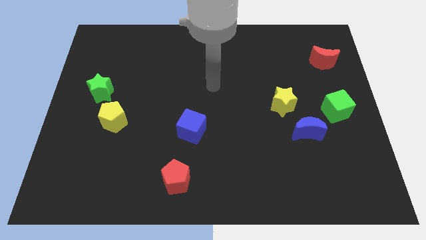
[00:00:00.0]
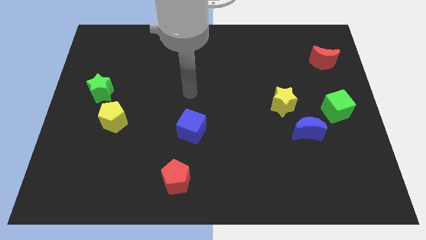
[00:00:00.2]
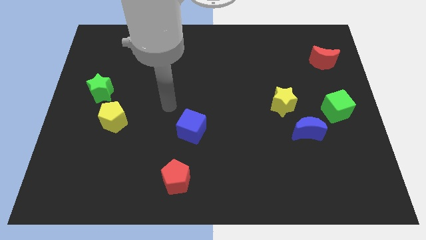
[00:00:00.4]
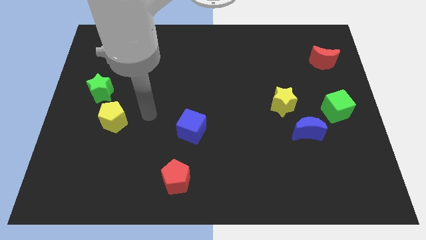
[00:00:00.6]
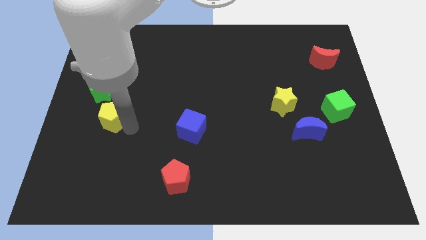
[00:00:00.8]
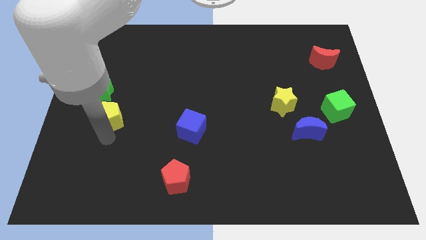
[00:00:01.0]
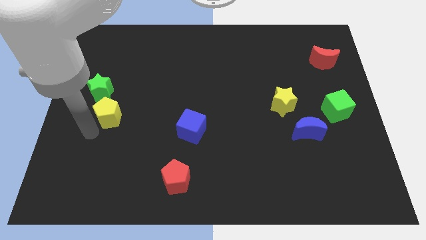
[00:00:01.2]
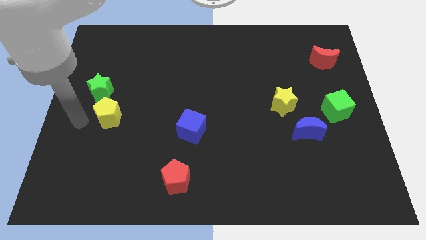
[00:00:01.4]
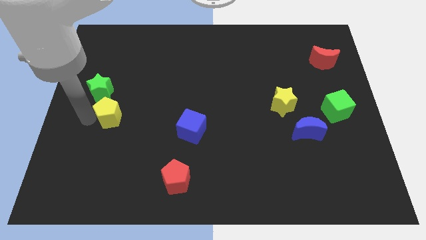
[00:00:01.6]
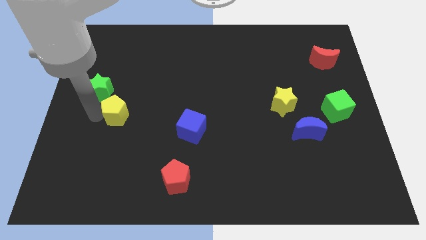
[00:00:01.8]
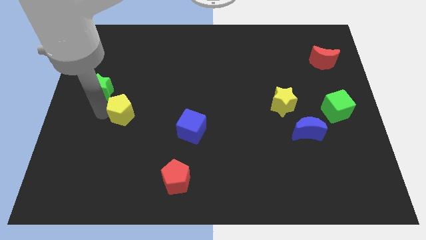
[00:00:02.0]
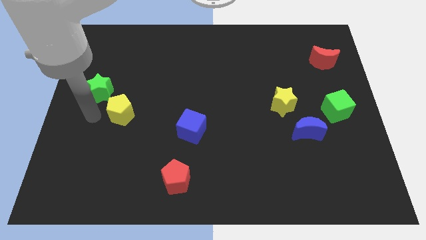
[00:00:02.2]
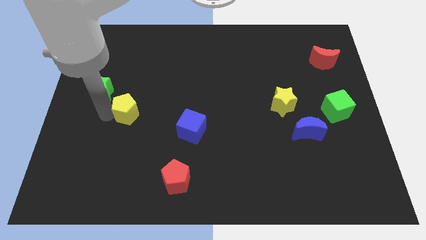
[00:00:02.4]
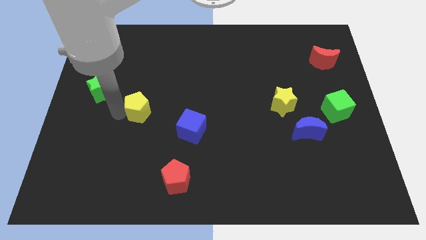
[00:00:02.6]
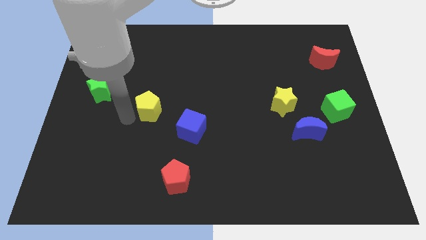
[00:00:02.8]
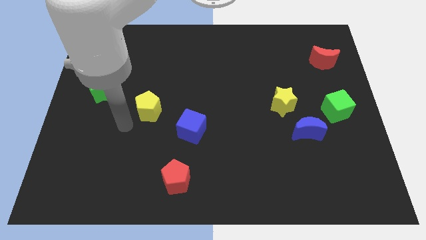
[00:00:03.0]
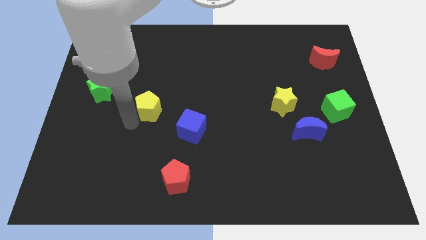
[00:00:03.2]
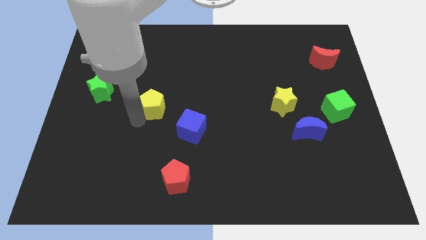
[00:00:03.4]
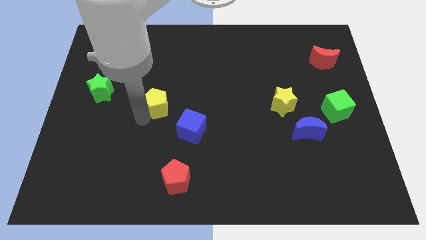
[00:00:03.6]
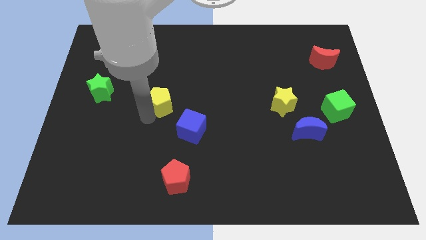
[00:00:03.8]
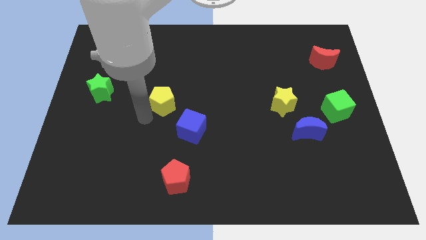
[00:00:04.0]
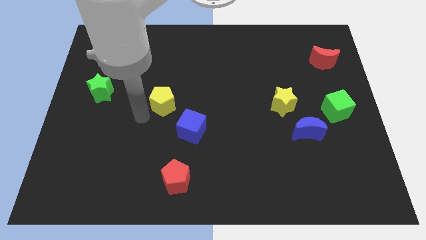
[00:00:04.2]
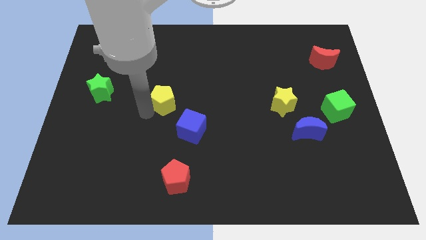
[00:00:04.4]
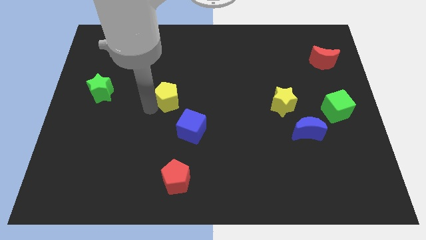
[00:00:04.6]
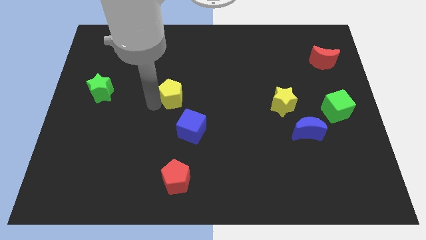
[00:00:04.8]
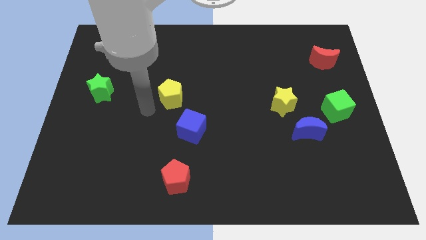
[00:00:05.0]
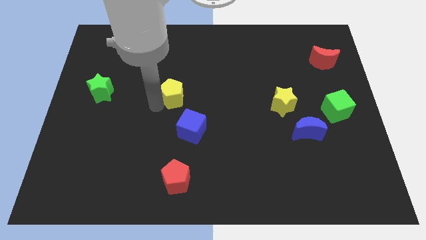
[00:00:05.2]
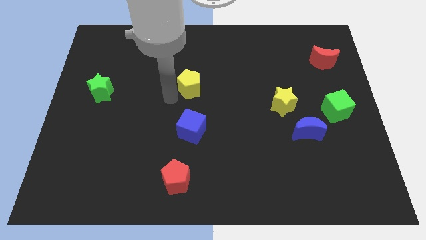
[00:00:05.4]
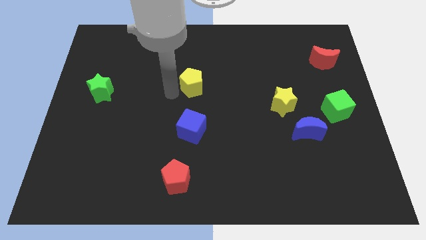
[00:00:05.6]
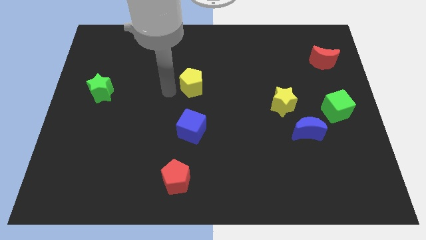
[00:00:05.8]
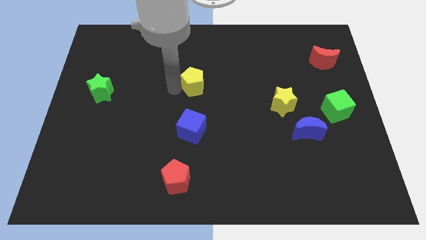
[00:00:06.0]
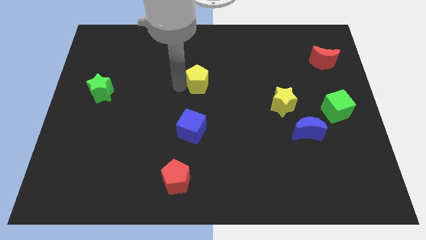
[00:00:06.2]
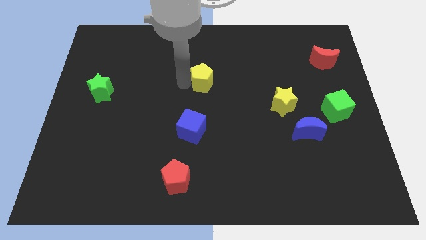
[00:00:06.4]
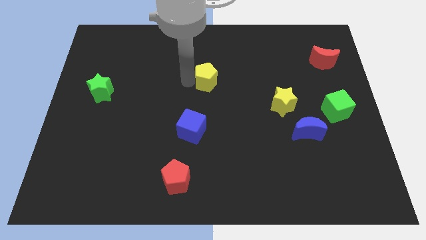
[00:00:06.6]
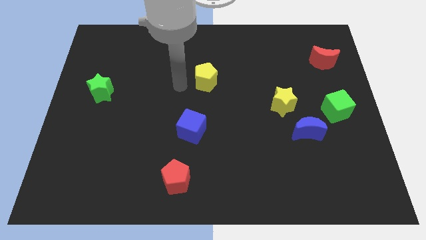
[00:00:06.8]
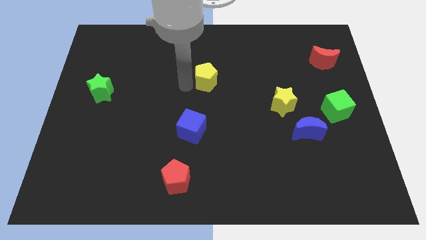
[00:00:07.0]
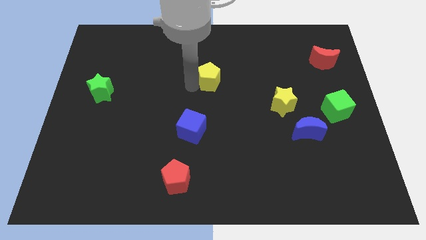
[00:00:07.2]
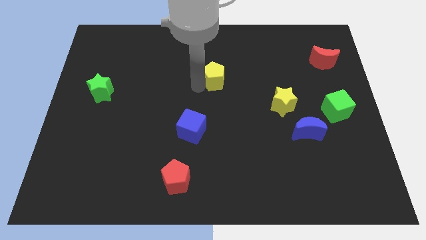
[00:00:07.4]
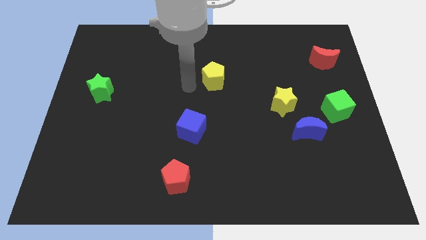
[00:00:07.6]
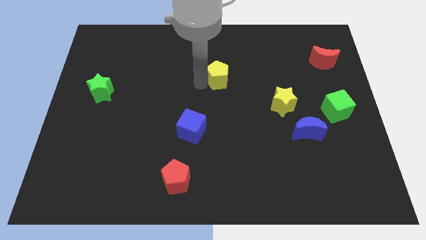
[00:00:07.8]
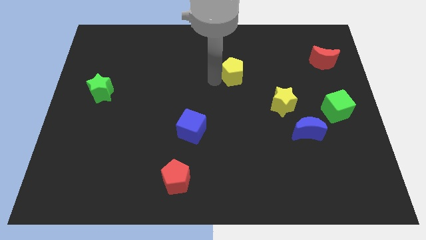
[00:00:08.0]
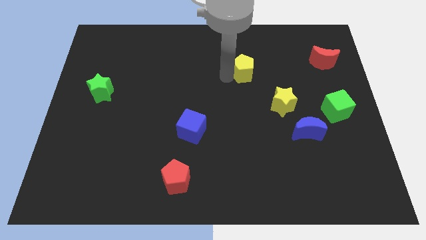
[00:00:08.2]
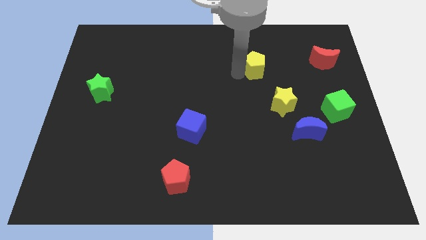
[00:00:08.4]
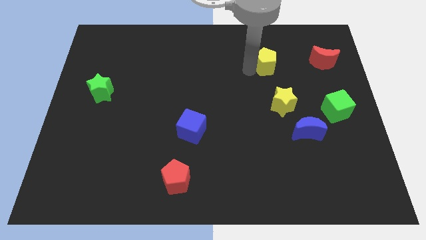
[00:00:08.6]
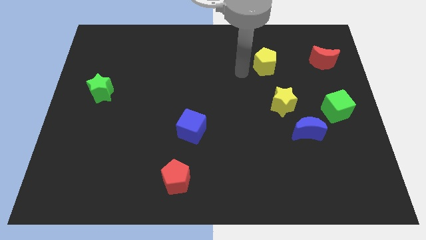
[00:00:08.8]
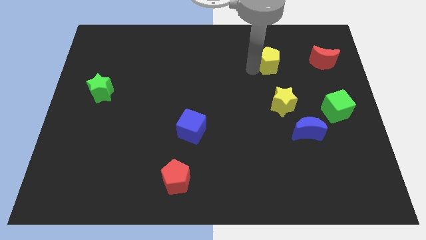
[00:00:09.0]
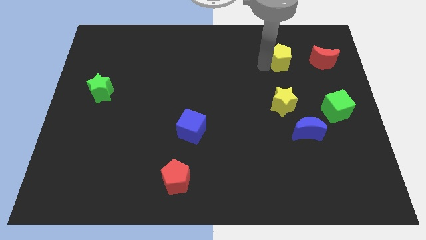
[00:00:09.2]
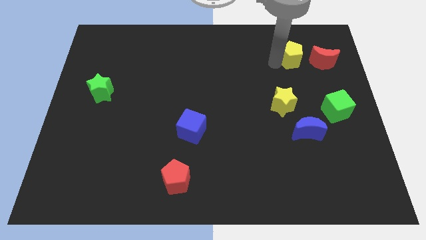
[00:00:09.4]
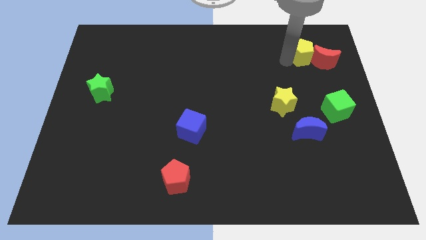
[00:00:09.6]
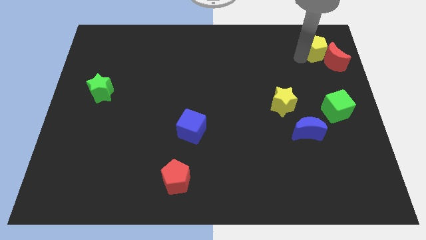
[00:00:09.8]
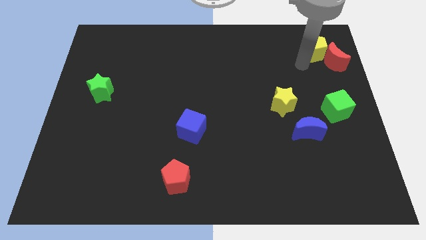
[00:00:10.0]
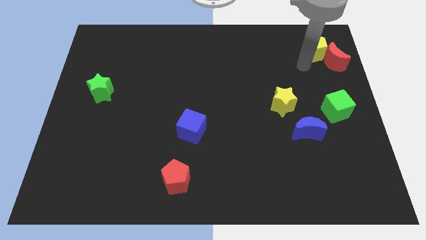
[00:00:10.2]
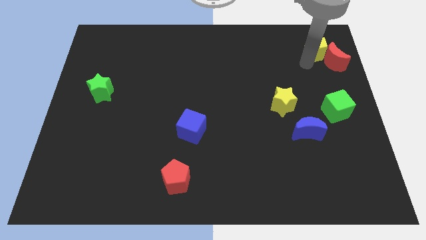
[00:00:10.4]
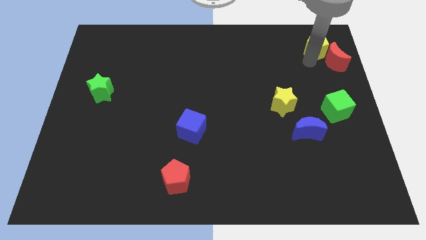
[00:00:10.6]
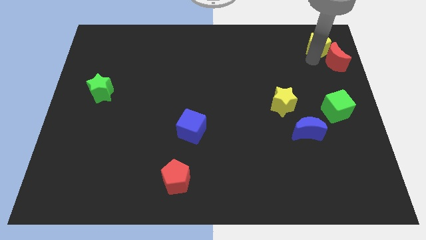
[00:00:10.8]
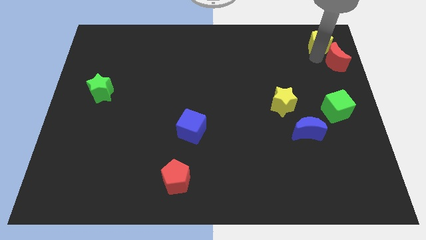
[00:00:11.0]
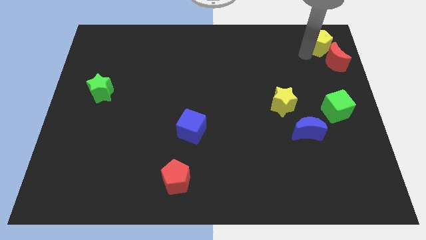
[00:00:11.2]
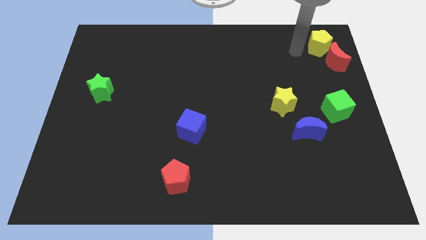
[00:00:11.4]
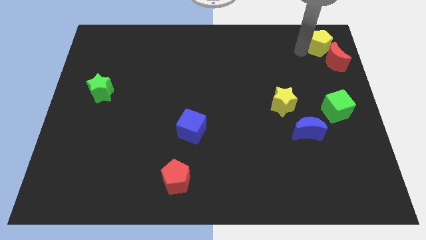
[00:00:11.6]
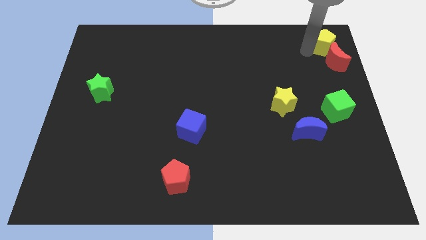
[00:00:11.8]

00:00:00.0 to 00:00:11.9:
slide the yellow pentagon to the top right

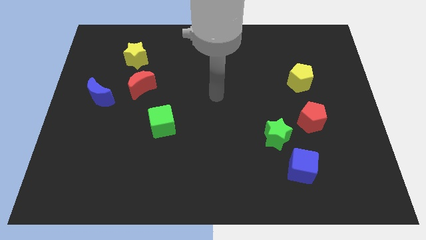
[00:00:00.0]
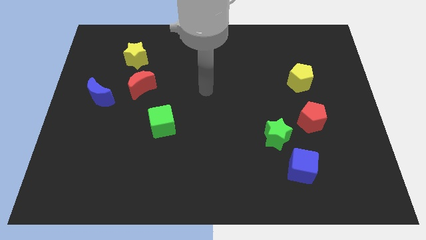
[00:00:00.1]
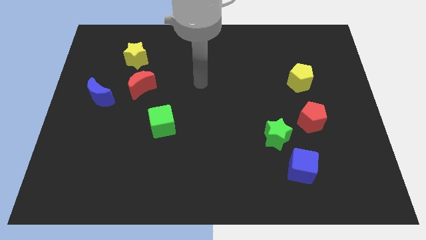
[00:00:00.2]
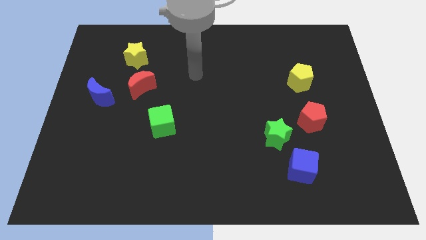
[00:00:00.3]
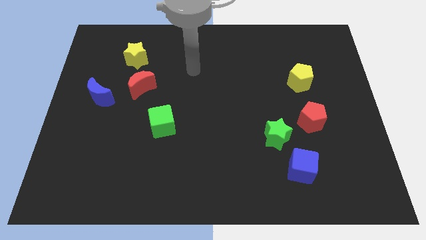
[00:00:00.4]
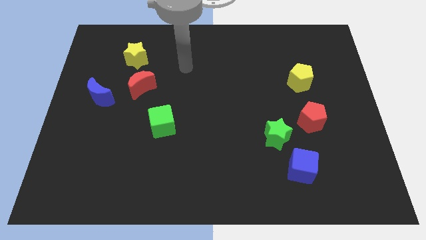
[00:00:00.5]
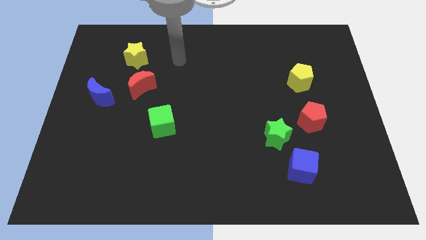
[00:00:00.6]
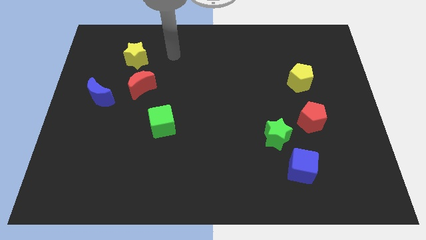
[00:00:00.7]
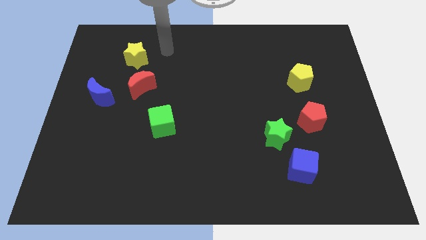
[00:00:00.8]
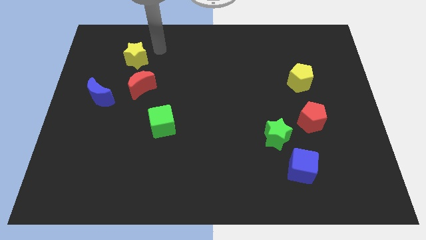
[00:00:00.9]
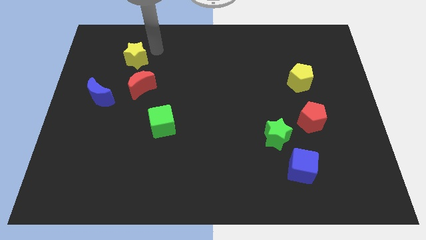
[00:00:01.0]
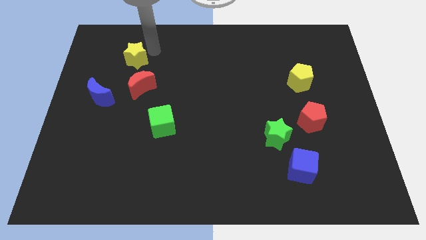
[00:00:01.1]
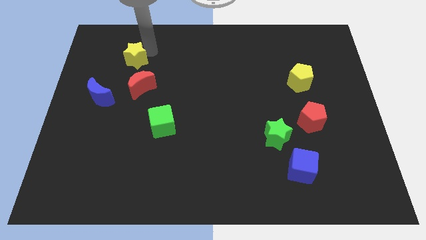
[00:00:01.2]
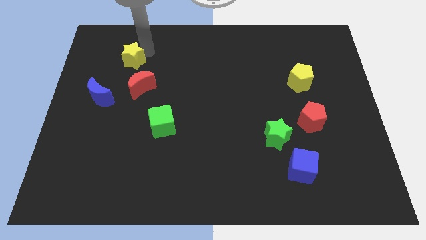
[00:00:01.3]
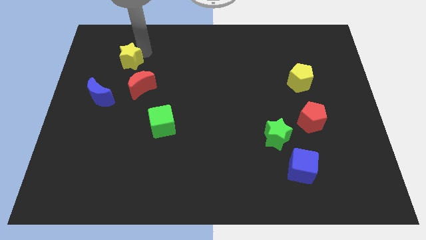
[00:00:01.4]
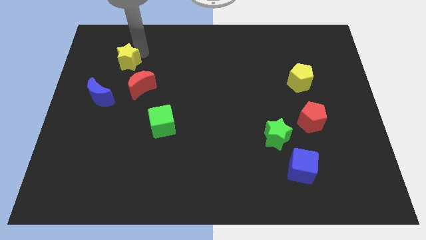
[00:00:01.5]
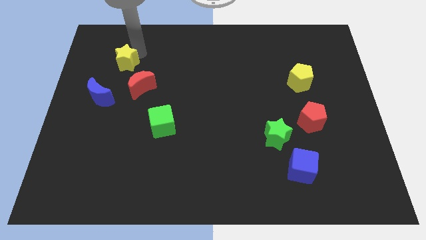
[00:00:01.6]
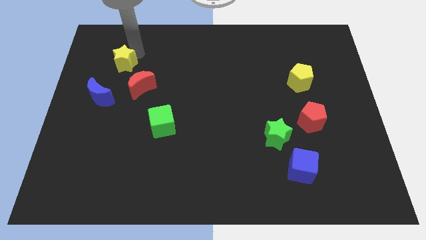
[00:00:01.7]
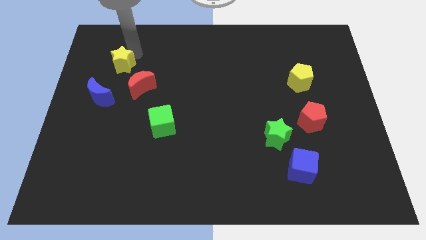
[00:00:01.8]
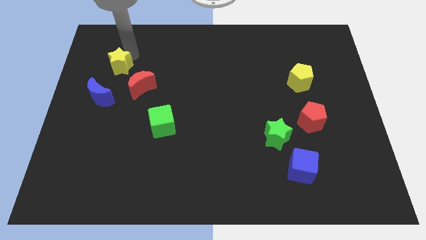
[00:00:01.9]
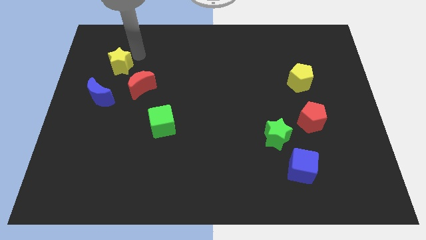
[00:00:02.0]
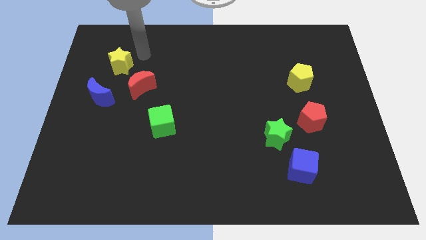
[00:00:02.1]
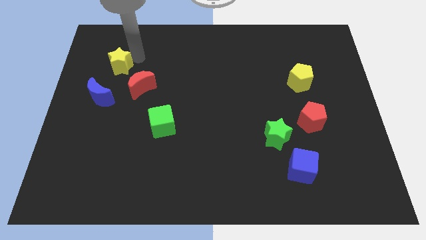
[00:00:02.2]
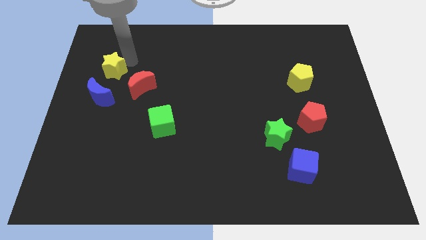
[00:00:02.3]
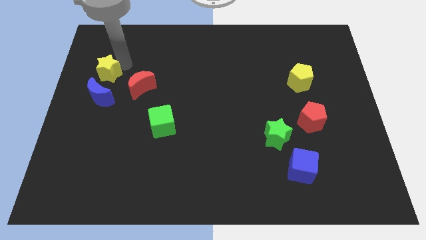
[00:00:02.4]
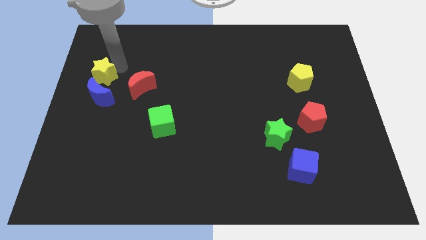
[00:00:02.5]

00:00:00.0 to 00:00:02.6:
push the yellow star to the left side of the board
